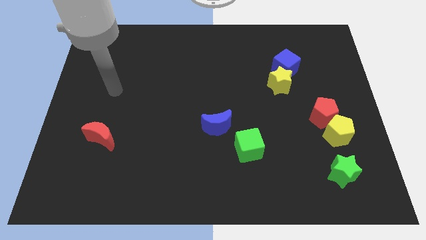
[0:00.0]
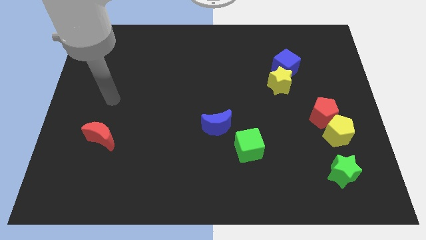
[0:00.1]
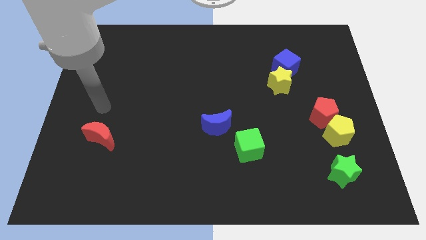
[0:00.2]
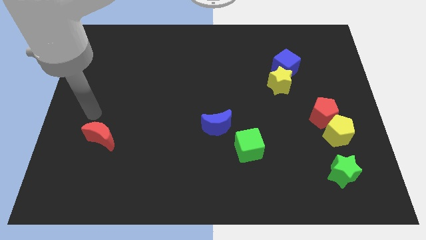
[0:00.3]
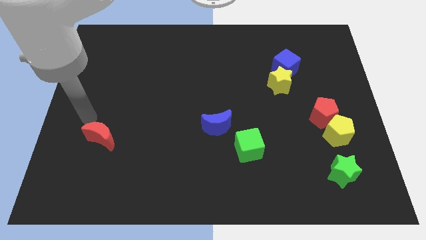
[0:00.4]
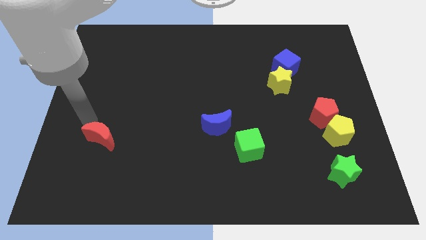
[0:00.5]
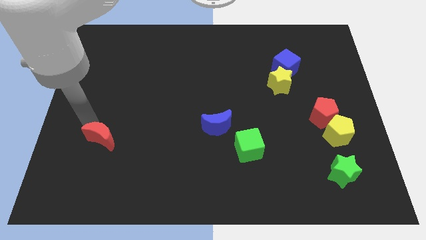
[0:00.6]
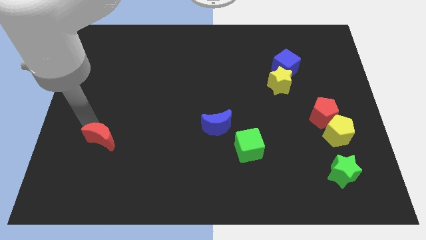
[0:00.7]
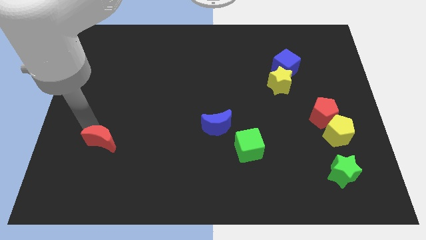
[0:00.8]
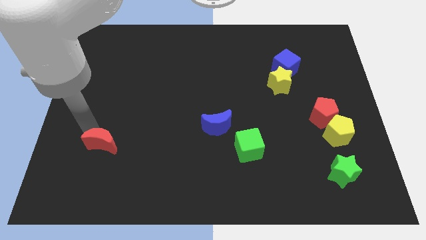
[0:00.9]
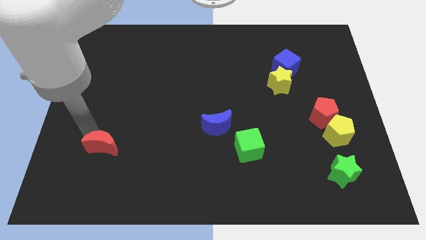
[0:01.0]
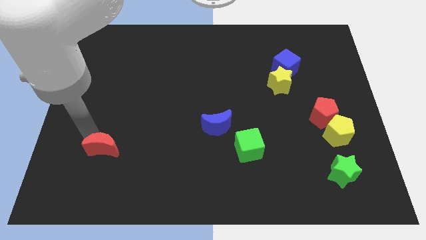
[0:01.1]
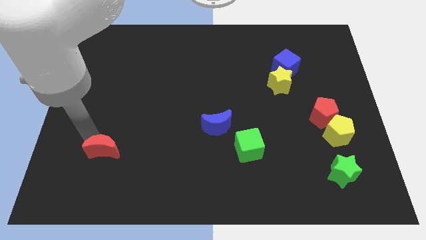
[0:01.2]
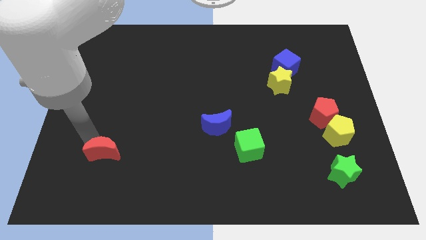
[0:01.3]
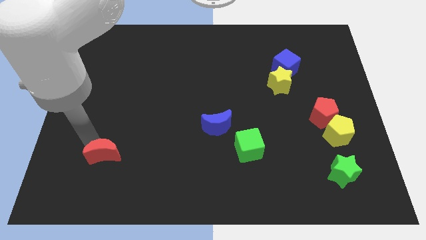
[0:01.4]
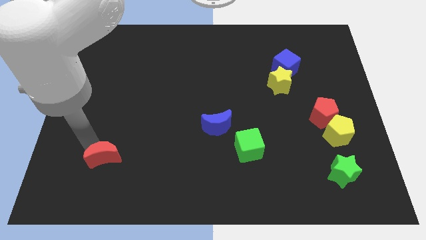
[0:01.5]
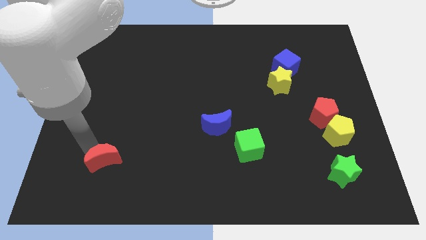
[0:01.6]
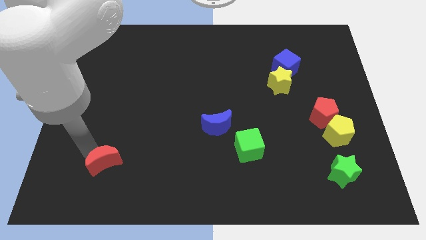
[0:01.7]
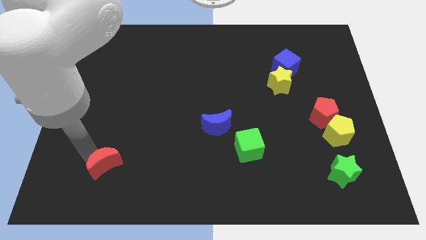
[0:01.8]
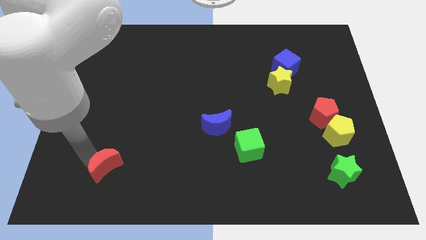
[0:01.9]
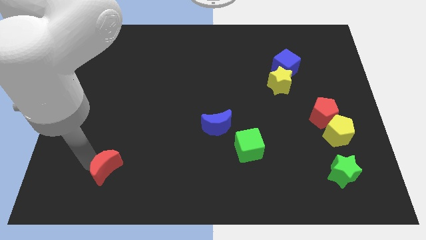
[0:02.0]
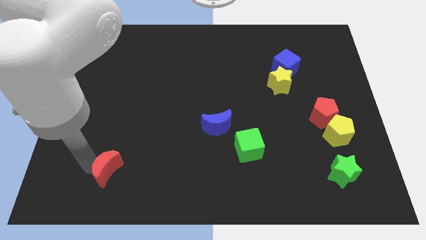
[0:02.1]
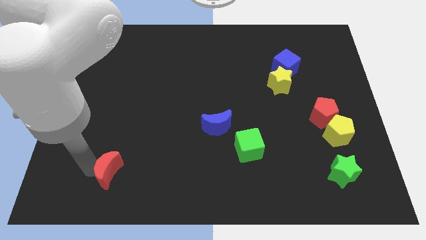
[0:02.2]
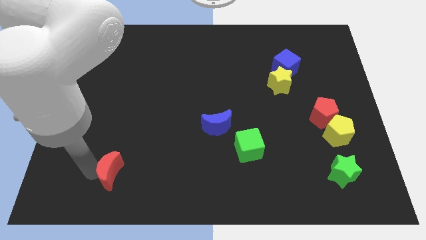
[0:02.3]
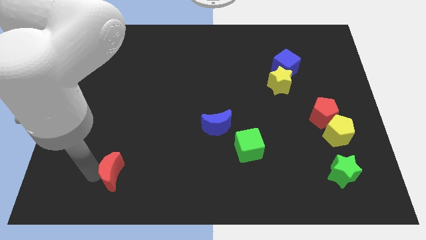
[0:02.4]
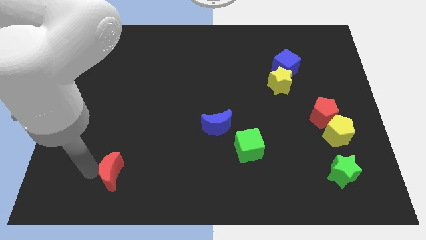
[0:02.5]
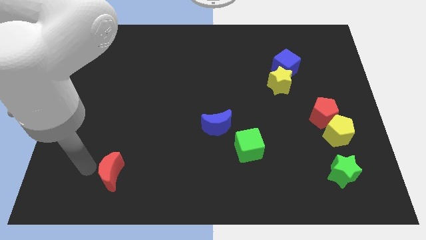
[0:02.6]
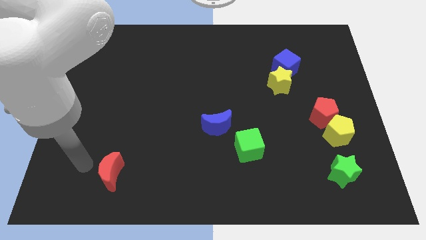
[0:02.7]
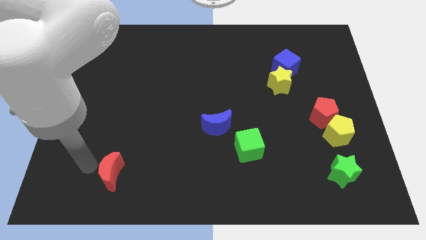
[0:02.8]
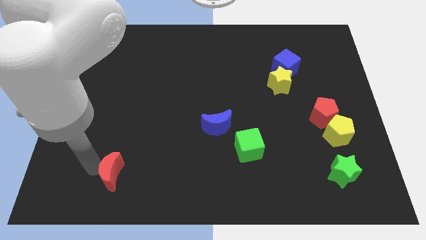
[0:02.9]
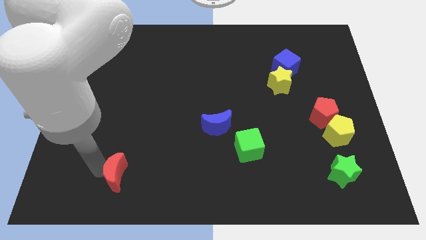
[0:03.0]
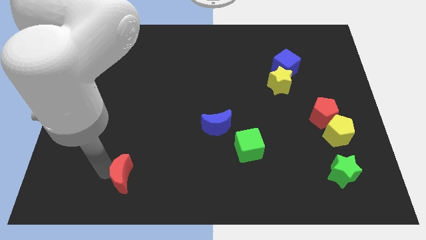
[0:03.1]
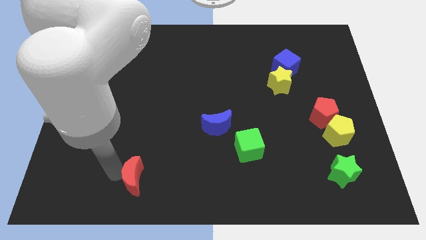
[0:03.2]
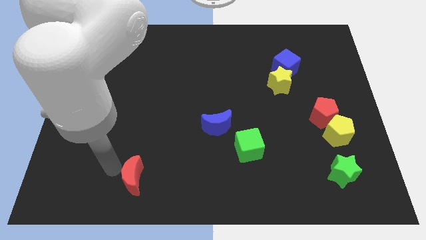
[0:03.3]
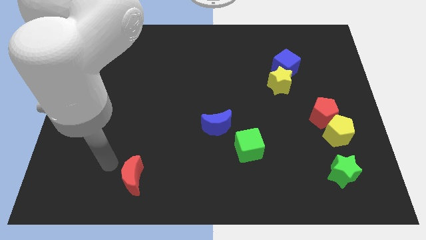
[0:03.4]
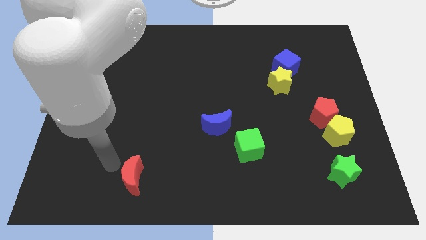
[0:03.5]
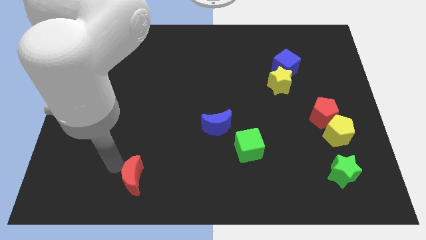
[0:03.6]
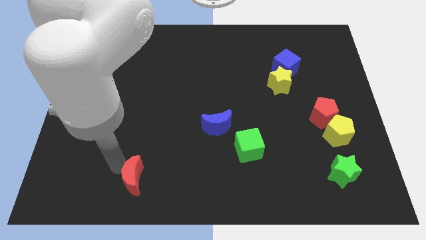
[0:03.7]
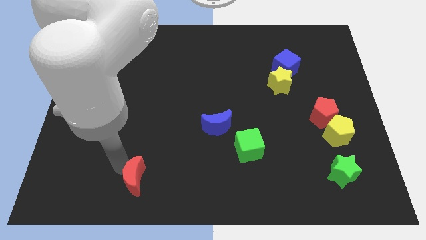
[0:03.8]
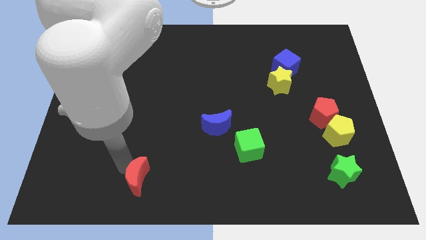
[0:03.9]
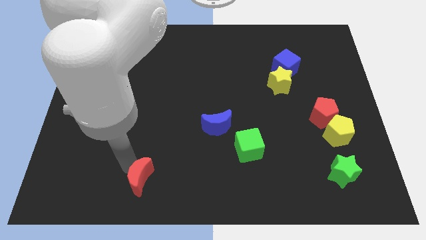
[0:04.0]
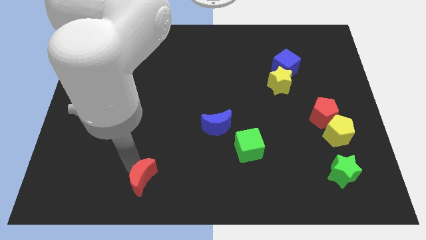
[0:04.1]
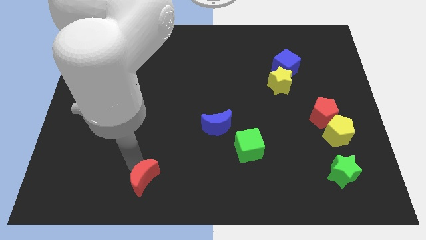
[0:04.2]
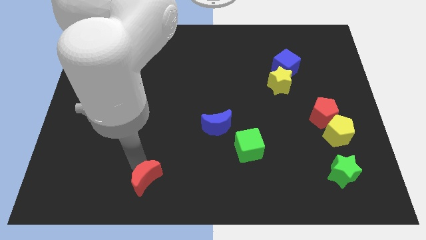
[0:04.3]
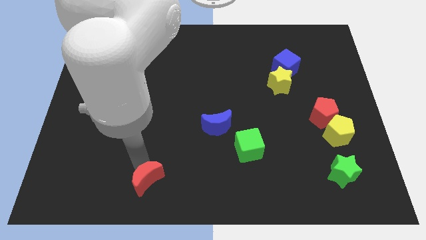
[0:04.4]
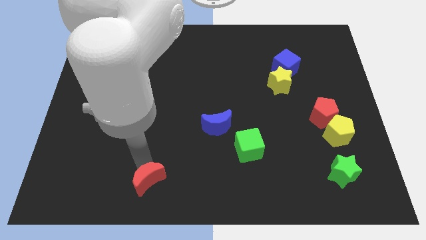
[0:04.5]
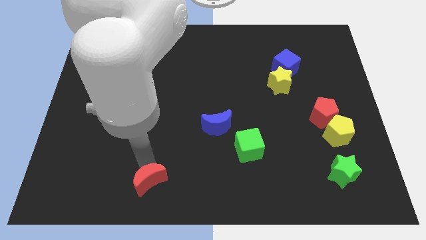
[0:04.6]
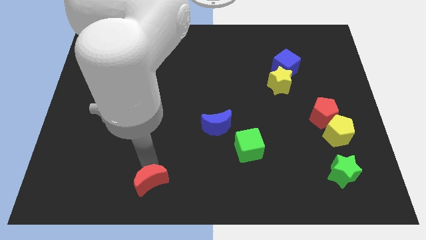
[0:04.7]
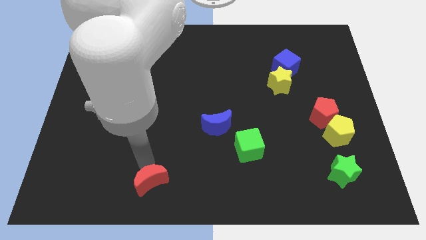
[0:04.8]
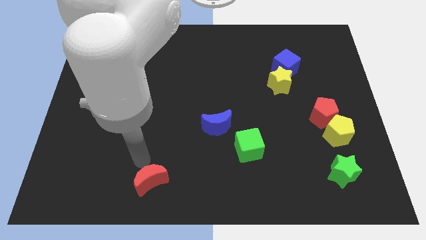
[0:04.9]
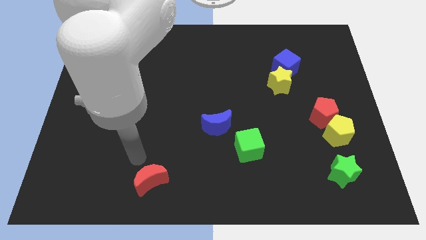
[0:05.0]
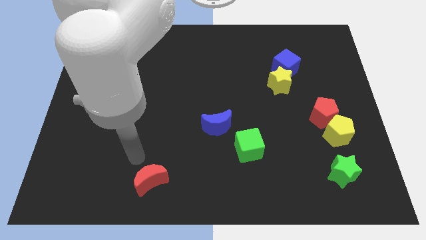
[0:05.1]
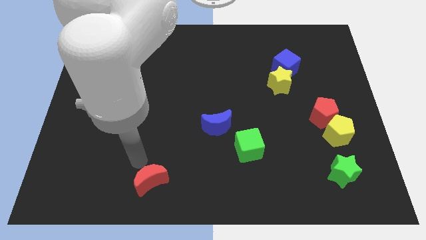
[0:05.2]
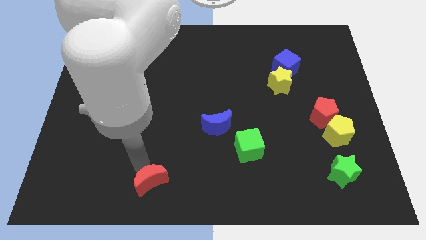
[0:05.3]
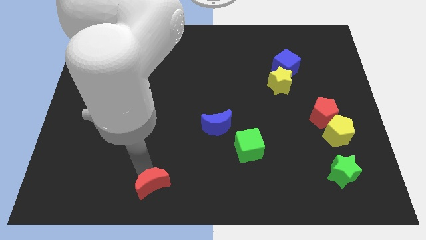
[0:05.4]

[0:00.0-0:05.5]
move the red moon to the bottom side

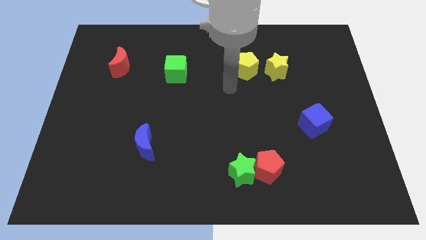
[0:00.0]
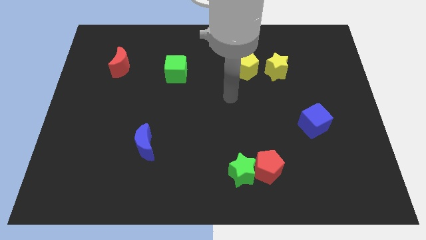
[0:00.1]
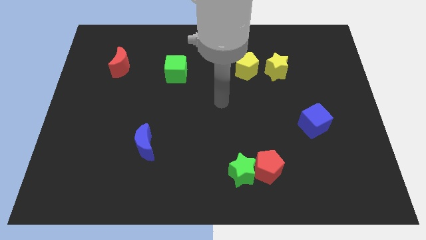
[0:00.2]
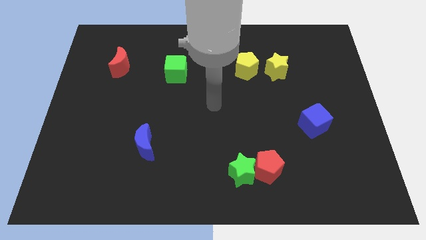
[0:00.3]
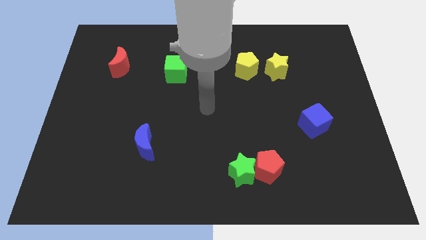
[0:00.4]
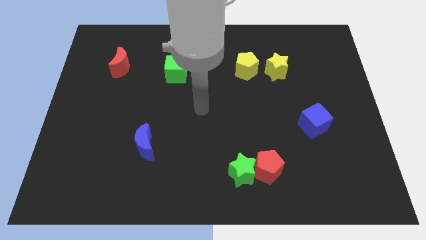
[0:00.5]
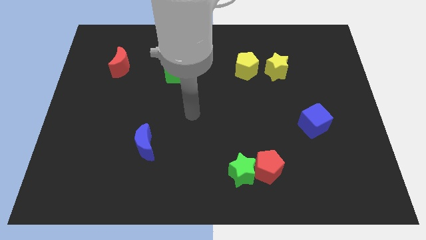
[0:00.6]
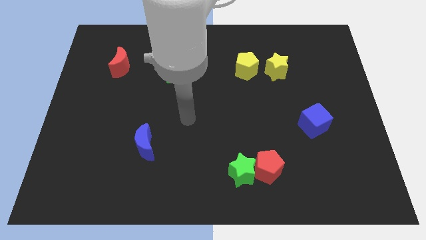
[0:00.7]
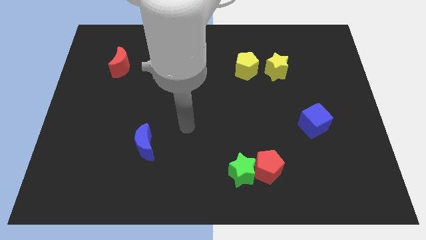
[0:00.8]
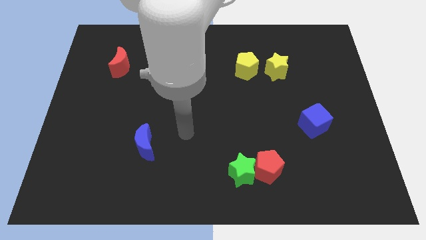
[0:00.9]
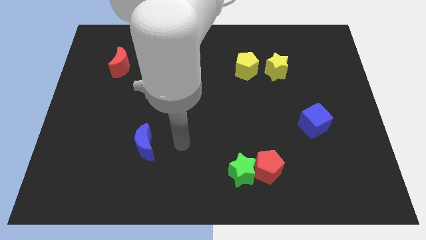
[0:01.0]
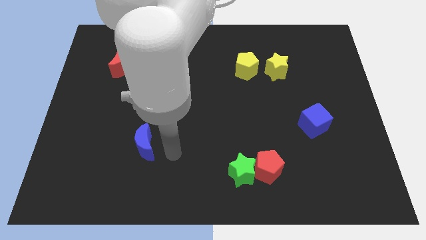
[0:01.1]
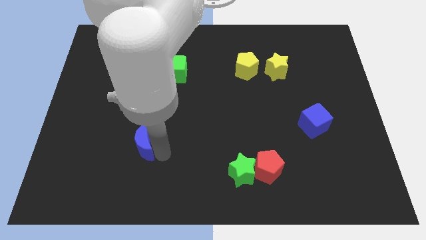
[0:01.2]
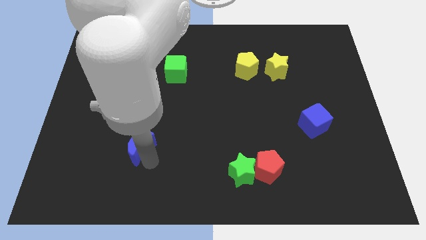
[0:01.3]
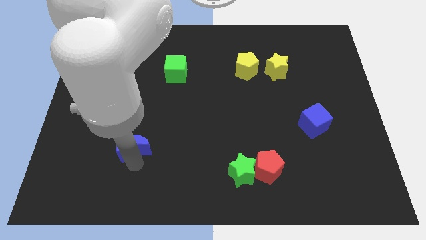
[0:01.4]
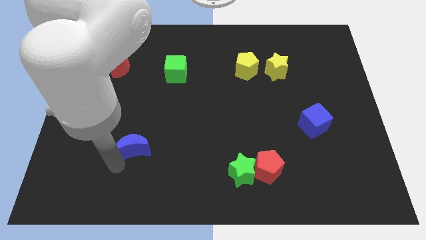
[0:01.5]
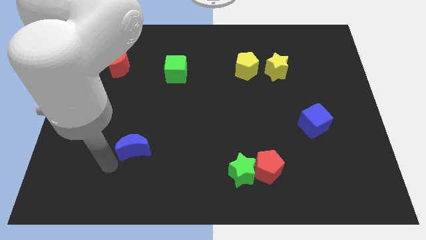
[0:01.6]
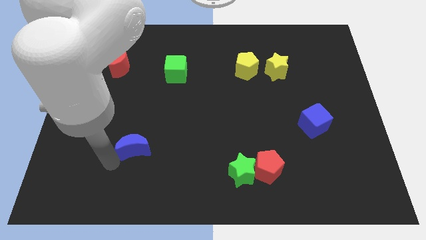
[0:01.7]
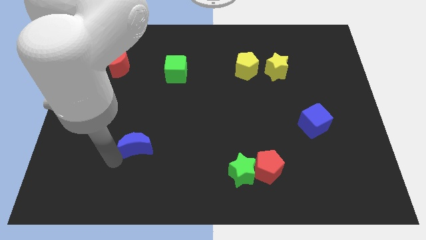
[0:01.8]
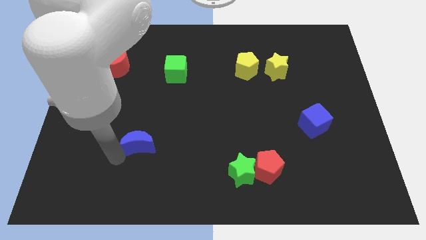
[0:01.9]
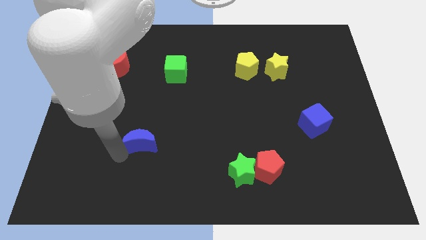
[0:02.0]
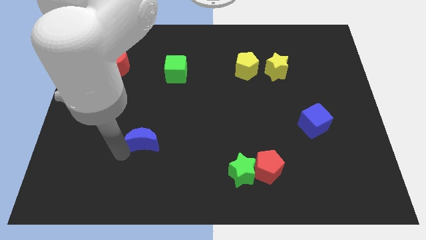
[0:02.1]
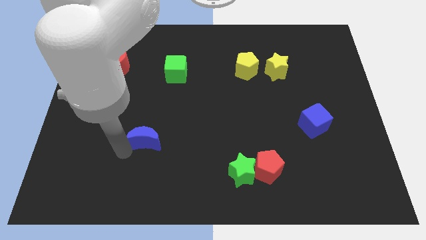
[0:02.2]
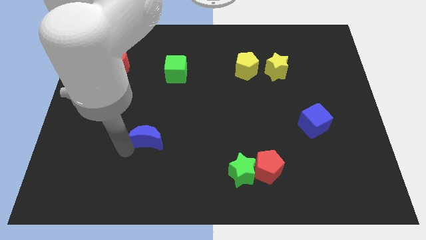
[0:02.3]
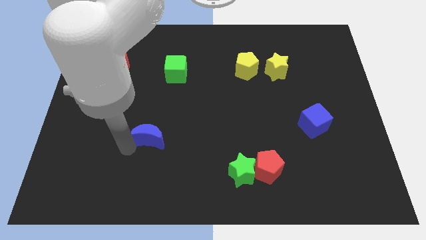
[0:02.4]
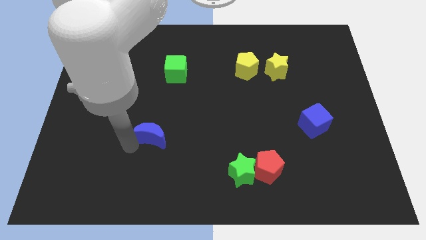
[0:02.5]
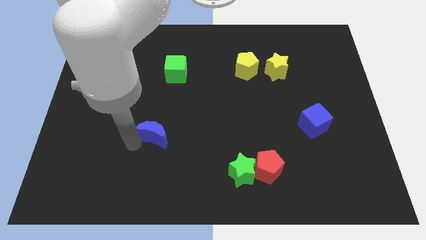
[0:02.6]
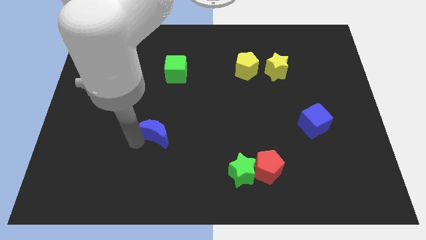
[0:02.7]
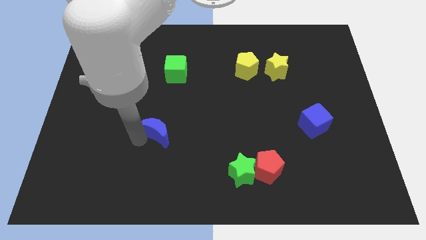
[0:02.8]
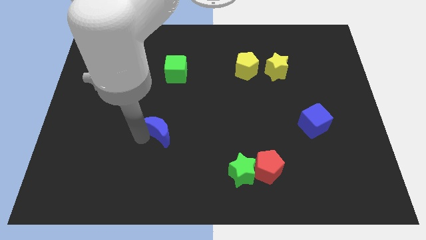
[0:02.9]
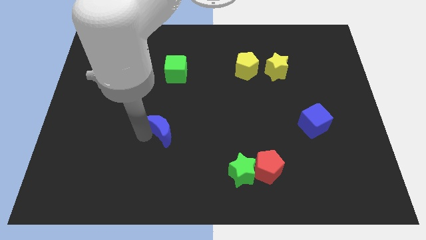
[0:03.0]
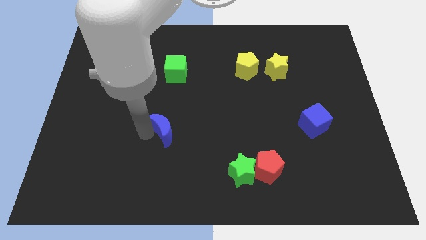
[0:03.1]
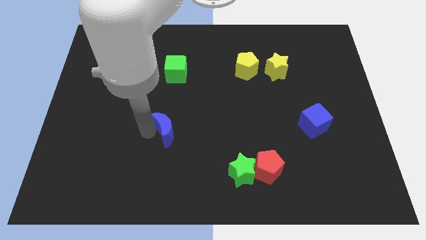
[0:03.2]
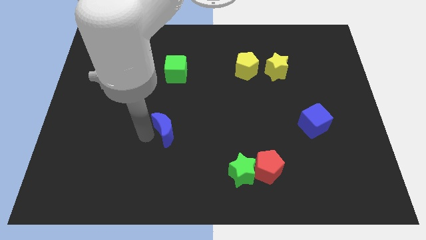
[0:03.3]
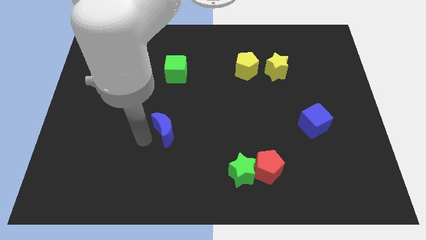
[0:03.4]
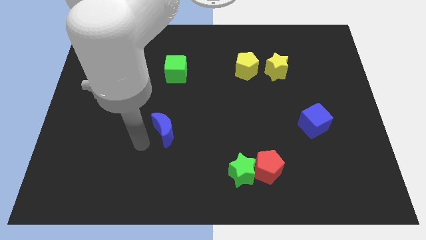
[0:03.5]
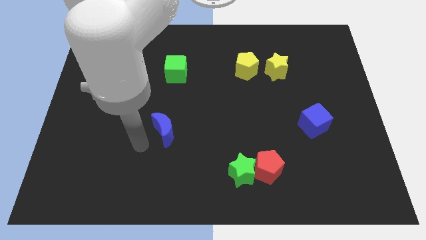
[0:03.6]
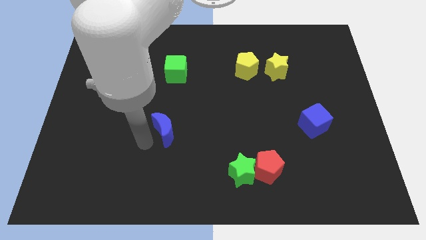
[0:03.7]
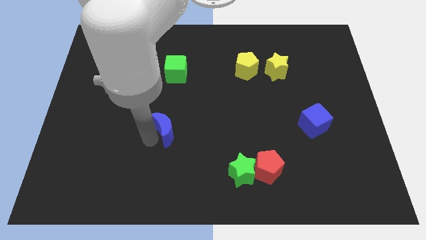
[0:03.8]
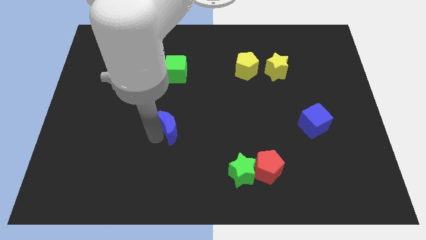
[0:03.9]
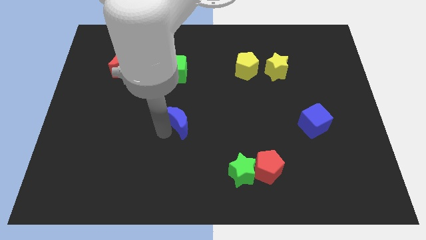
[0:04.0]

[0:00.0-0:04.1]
move the blue moon to the center
